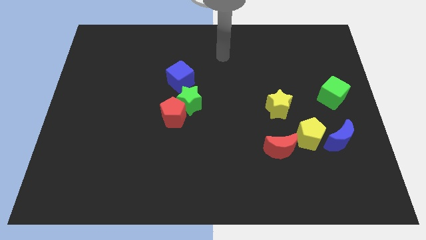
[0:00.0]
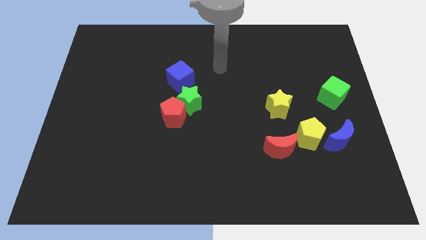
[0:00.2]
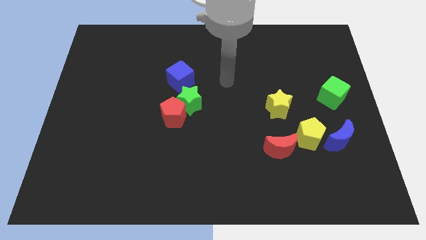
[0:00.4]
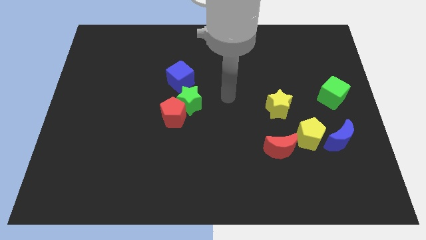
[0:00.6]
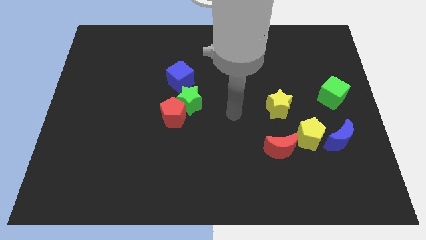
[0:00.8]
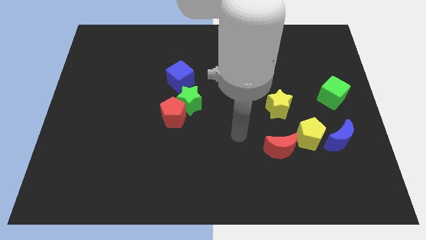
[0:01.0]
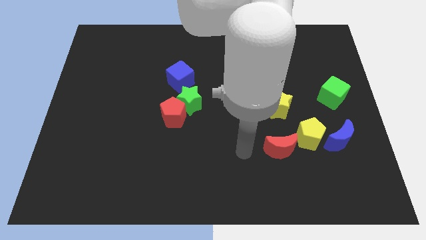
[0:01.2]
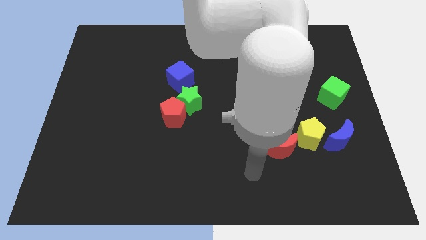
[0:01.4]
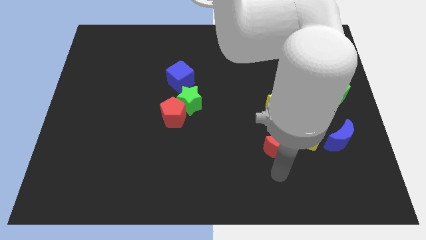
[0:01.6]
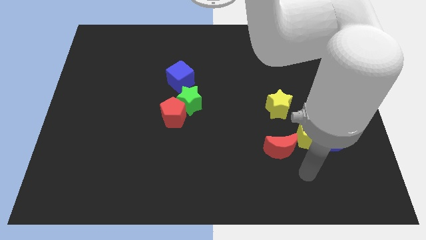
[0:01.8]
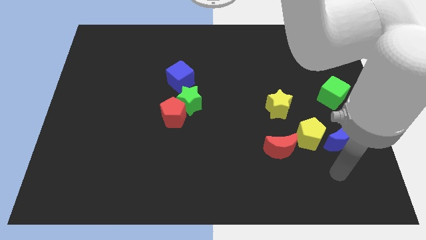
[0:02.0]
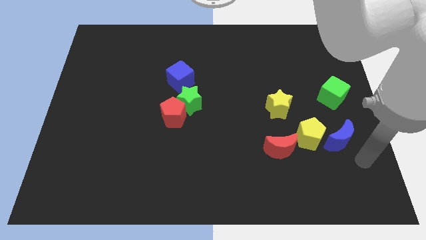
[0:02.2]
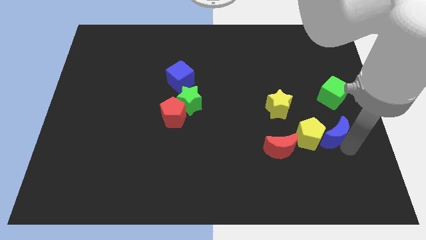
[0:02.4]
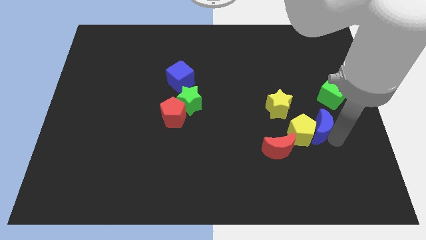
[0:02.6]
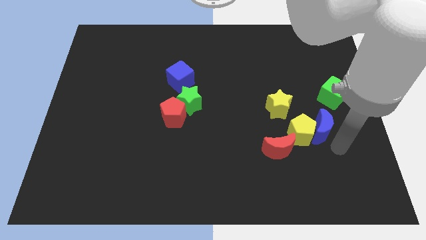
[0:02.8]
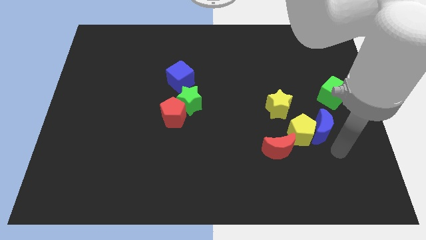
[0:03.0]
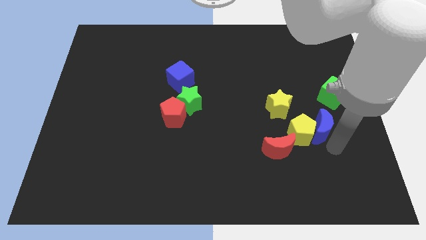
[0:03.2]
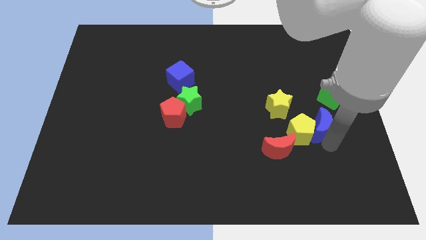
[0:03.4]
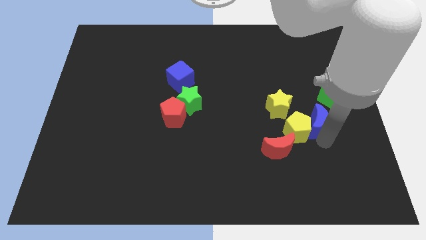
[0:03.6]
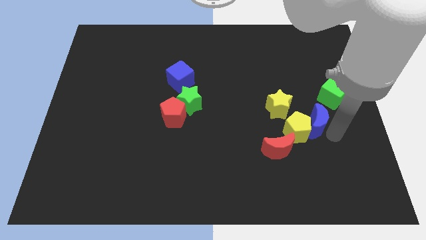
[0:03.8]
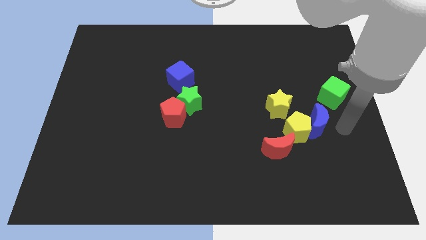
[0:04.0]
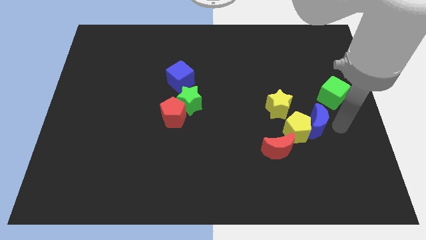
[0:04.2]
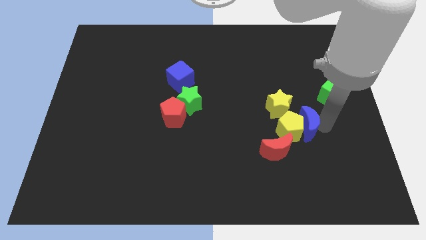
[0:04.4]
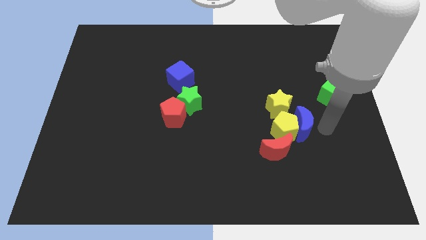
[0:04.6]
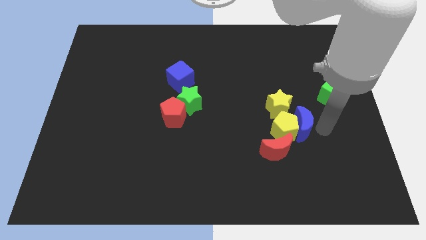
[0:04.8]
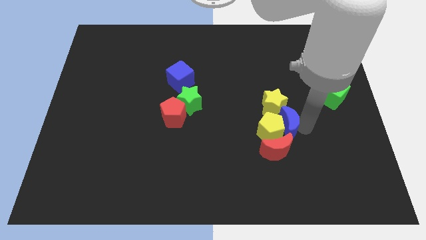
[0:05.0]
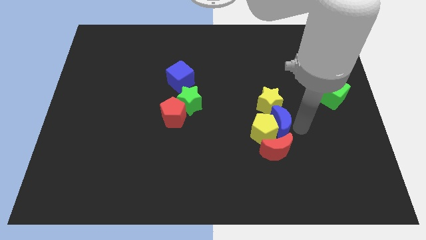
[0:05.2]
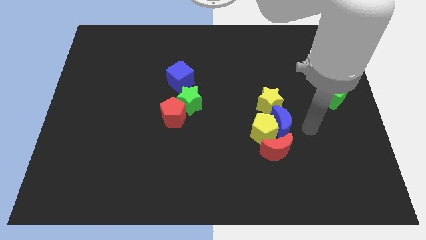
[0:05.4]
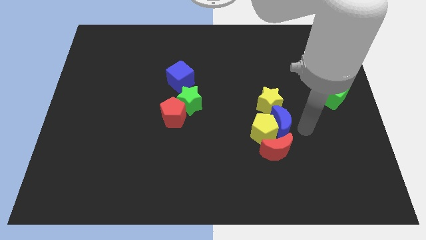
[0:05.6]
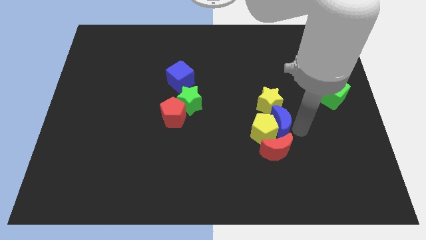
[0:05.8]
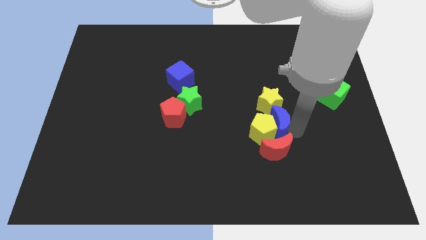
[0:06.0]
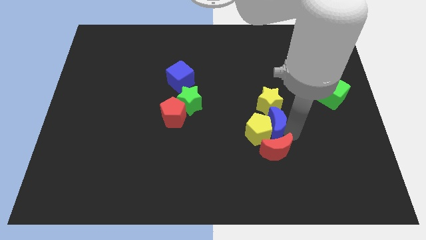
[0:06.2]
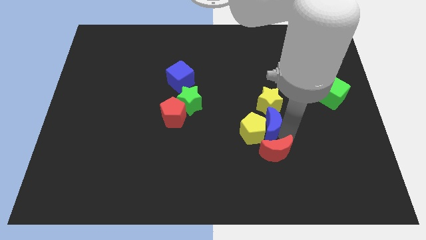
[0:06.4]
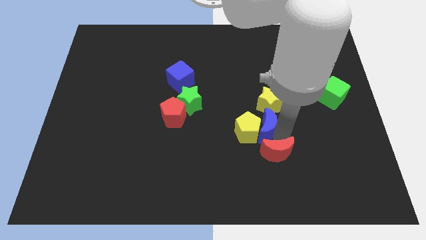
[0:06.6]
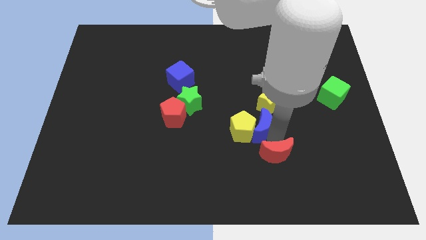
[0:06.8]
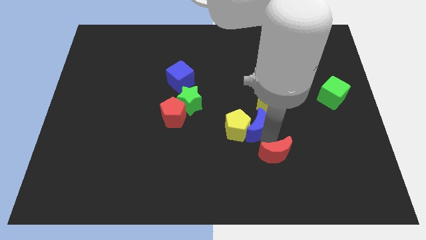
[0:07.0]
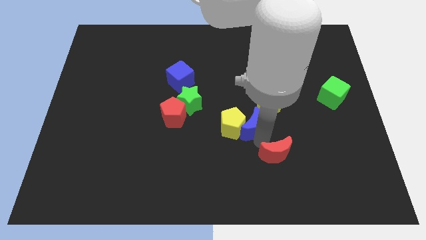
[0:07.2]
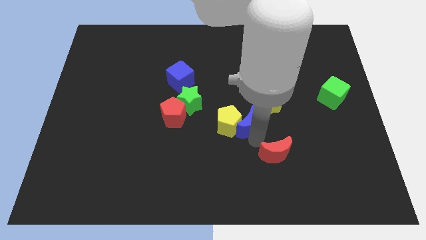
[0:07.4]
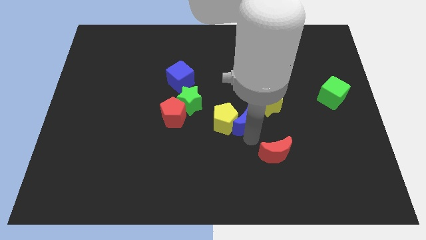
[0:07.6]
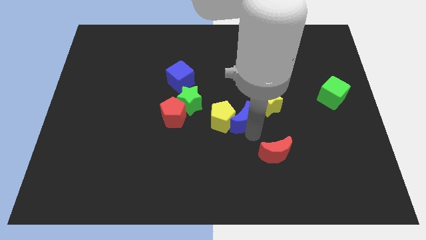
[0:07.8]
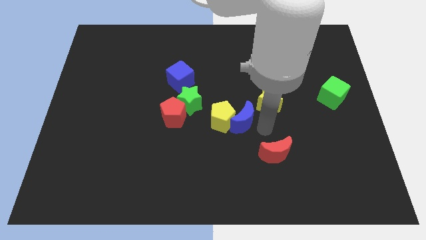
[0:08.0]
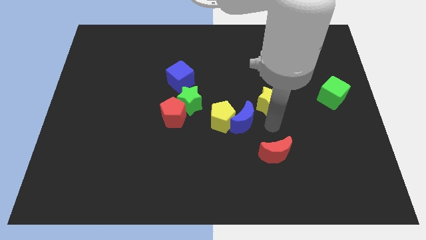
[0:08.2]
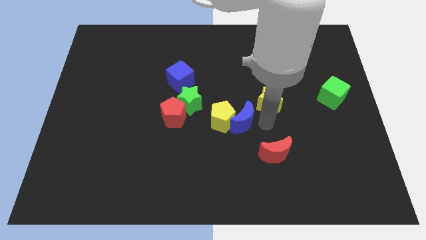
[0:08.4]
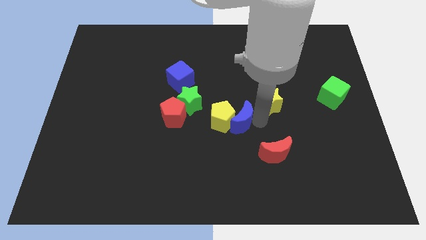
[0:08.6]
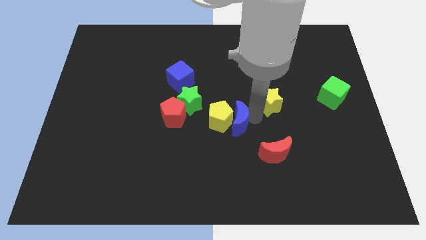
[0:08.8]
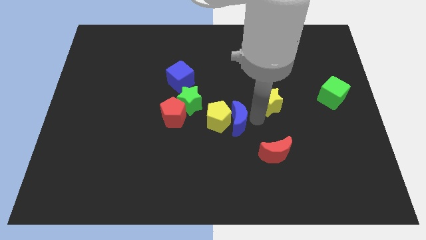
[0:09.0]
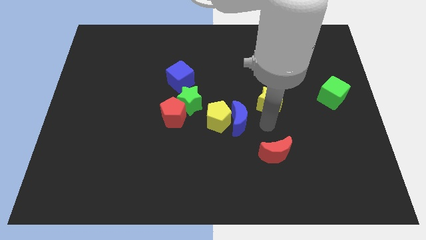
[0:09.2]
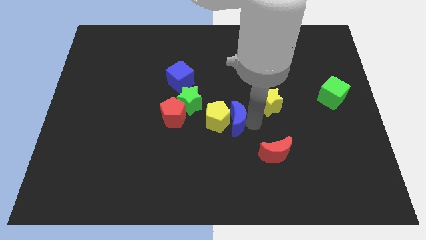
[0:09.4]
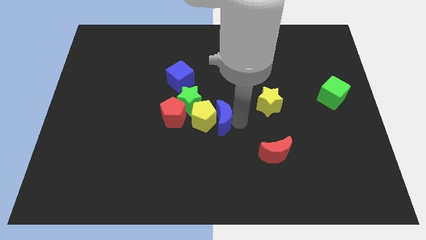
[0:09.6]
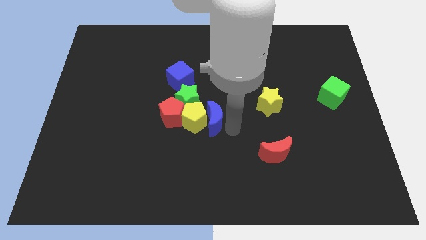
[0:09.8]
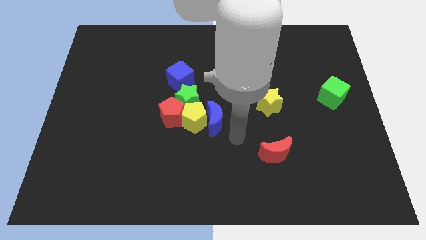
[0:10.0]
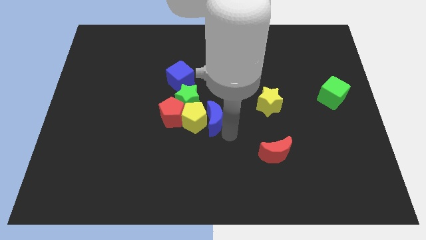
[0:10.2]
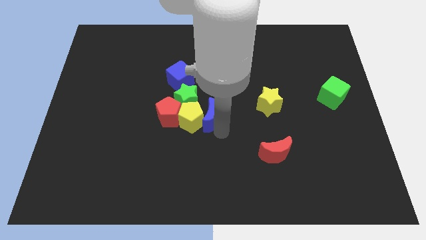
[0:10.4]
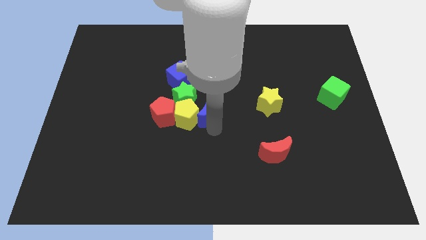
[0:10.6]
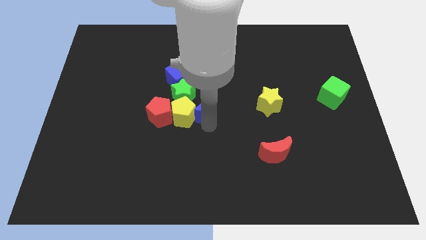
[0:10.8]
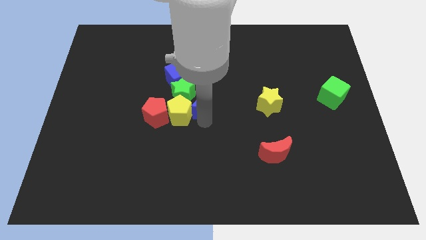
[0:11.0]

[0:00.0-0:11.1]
slide the blue moon towards the green star

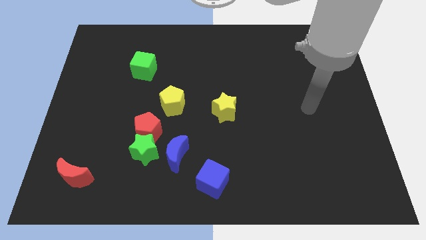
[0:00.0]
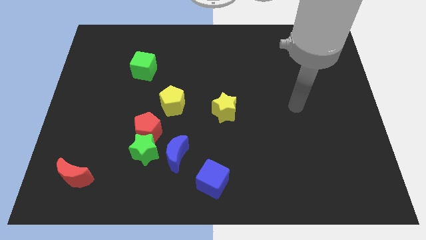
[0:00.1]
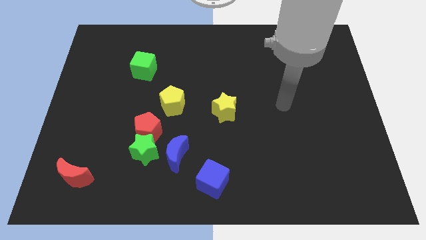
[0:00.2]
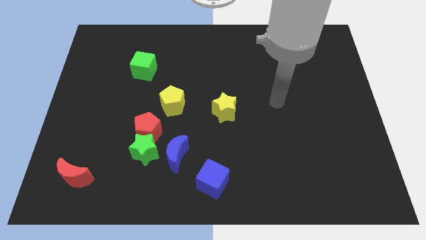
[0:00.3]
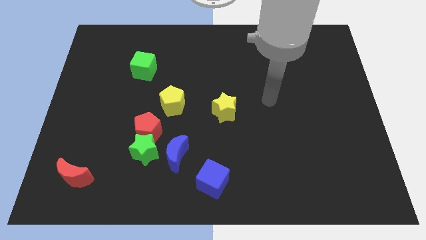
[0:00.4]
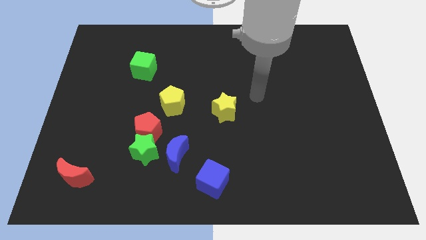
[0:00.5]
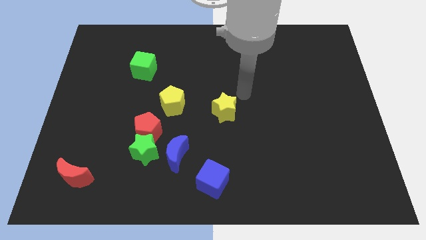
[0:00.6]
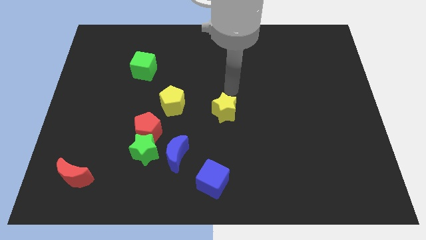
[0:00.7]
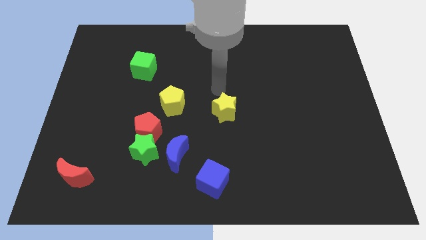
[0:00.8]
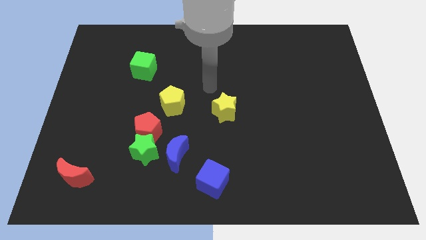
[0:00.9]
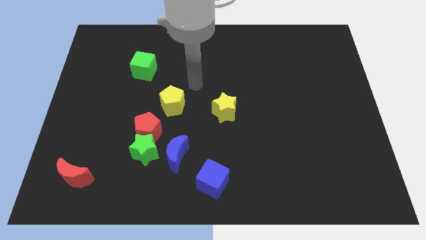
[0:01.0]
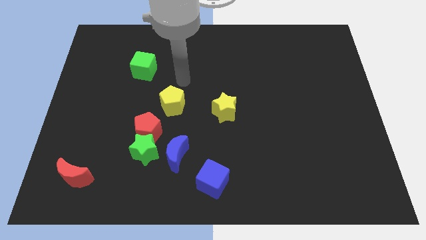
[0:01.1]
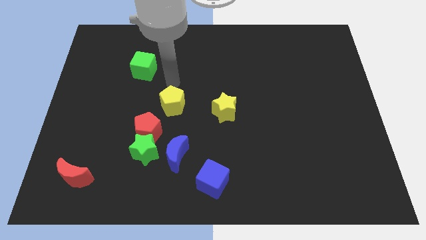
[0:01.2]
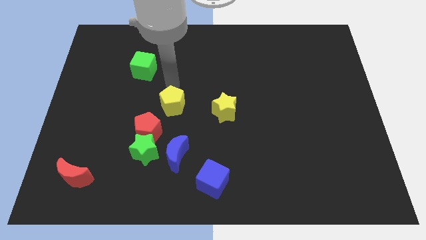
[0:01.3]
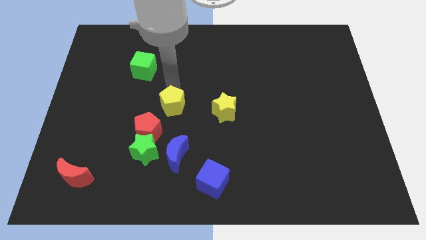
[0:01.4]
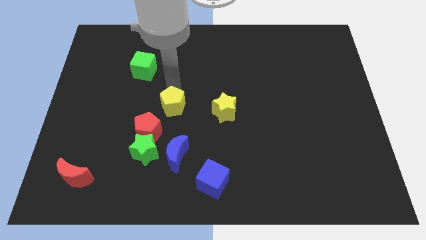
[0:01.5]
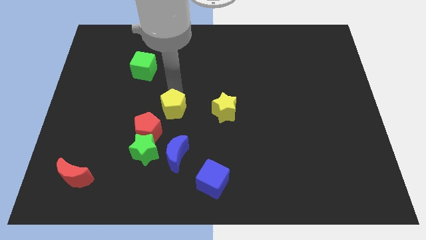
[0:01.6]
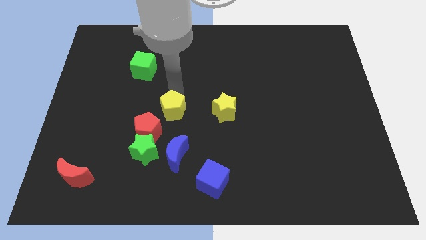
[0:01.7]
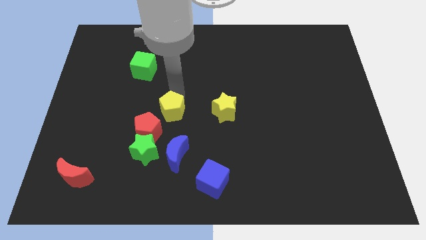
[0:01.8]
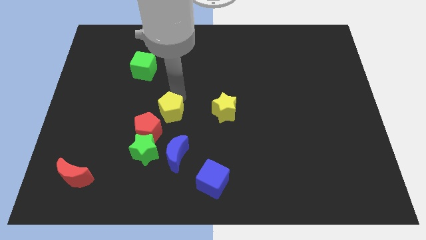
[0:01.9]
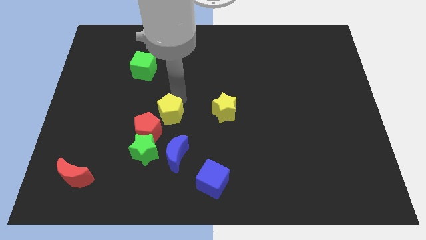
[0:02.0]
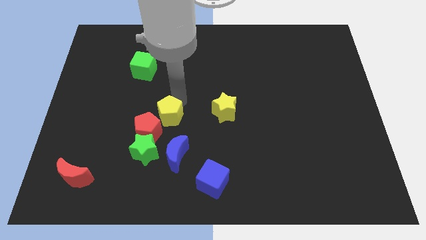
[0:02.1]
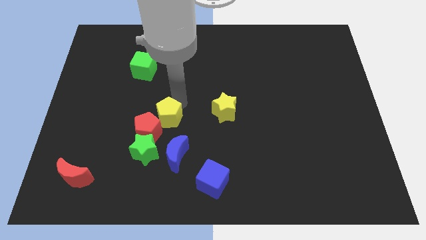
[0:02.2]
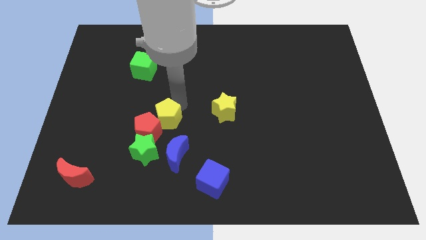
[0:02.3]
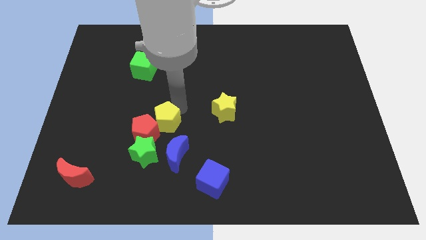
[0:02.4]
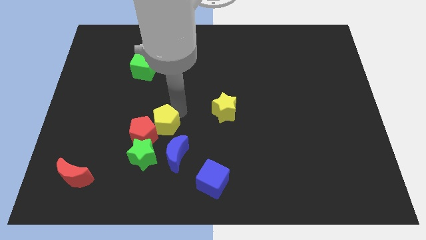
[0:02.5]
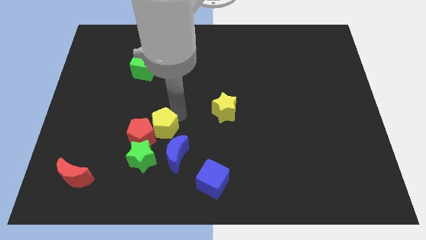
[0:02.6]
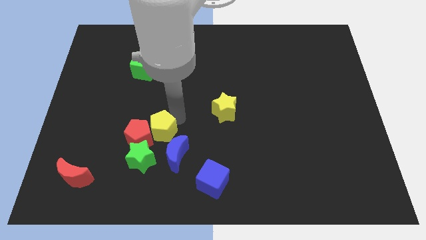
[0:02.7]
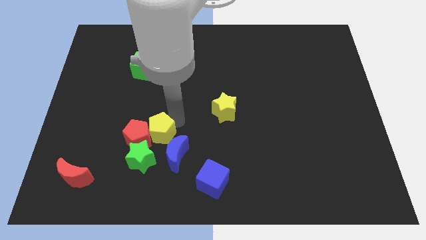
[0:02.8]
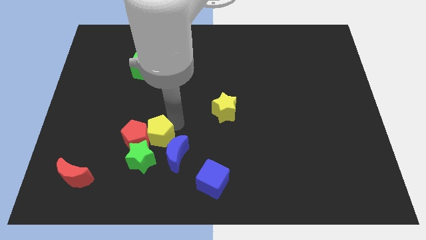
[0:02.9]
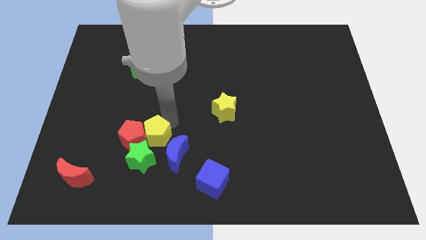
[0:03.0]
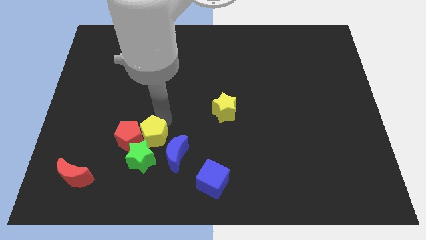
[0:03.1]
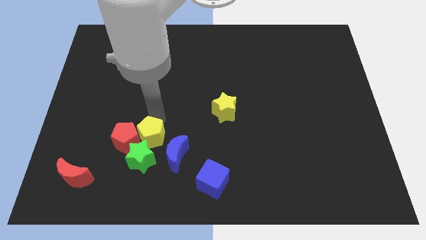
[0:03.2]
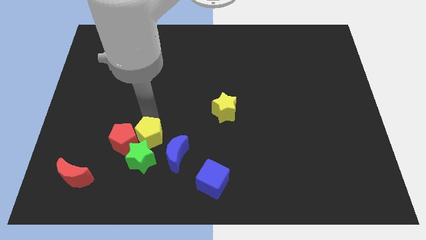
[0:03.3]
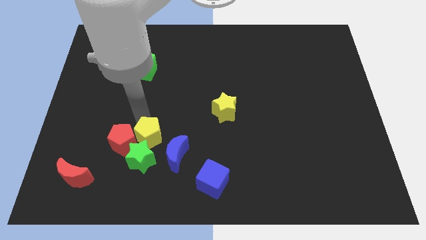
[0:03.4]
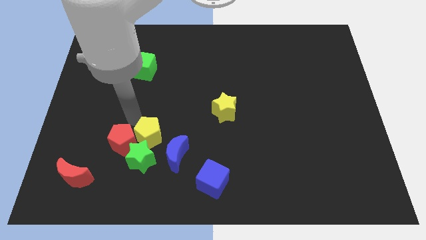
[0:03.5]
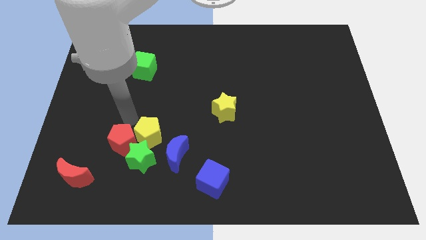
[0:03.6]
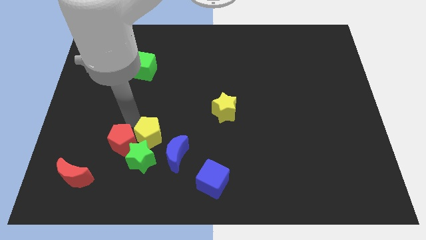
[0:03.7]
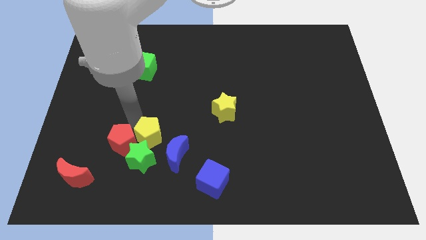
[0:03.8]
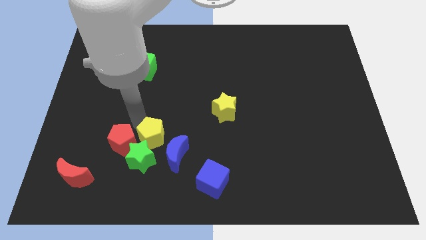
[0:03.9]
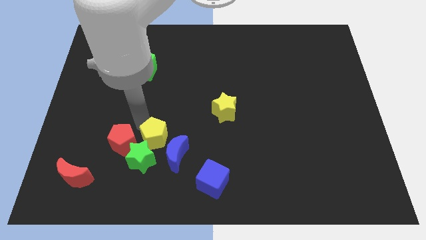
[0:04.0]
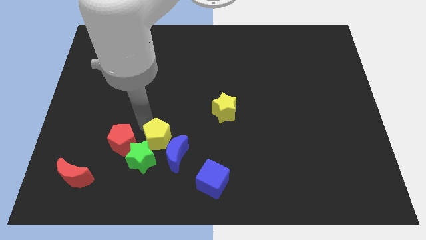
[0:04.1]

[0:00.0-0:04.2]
push the yellow pentagon close to the blue moon
